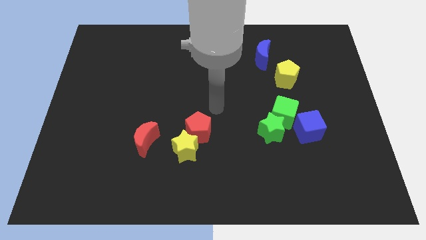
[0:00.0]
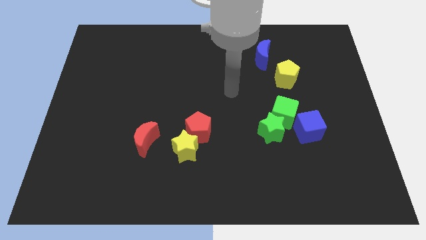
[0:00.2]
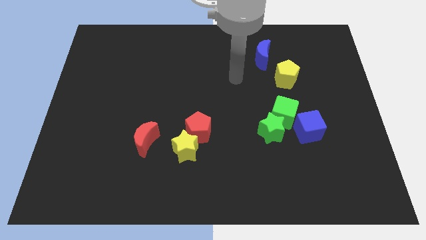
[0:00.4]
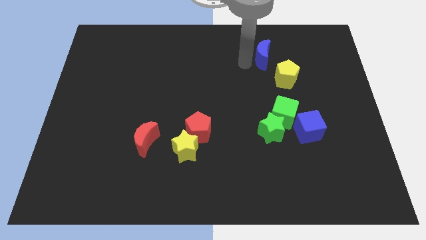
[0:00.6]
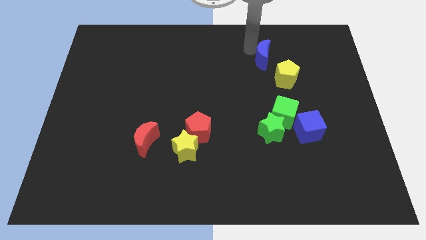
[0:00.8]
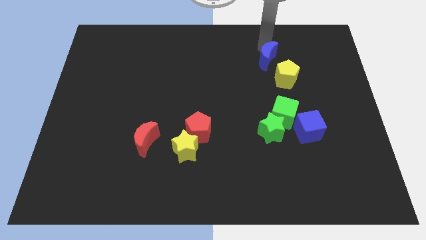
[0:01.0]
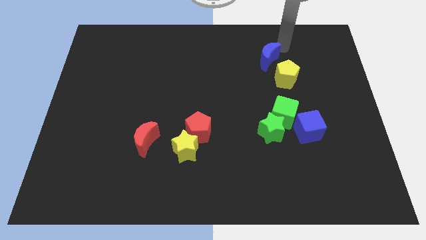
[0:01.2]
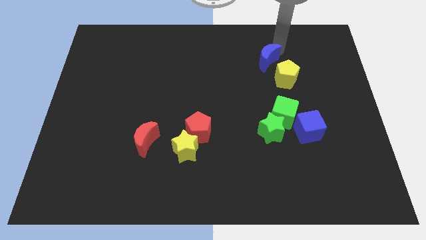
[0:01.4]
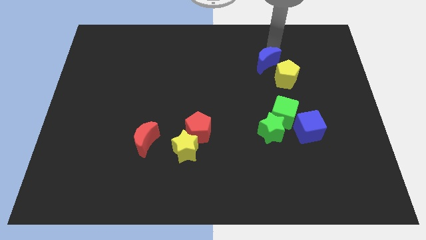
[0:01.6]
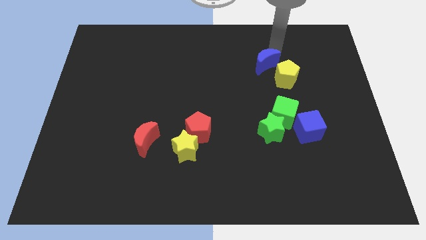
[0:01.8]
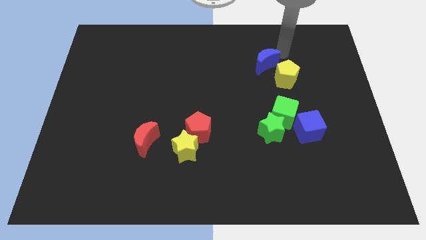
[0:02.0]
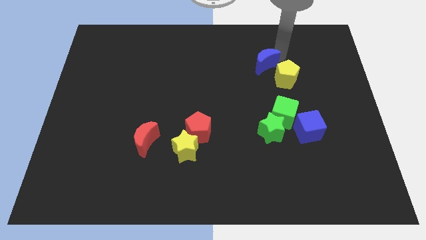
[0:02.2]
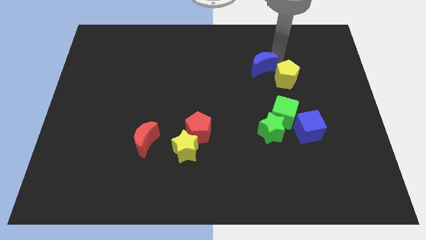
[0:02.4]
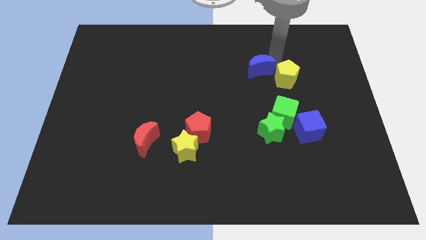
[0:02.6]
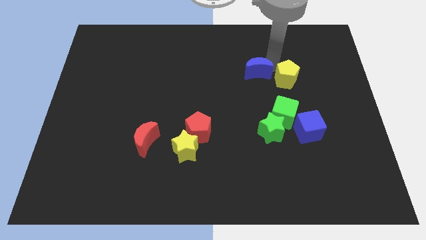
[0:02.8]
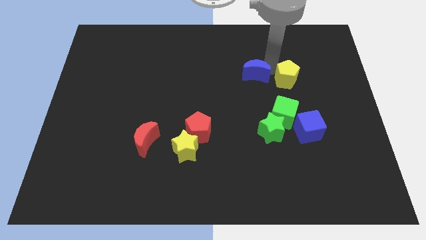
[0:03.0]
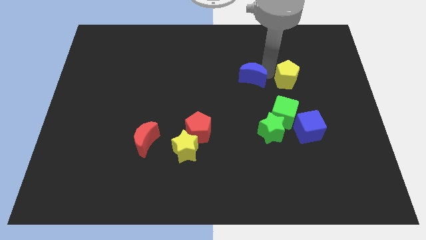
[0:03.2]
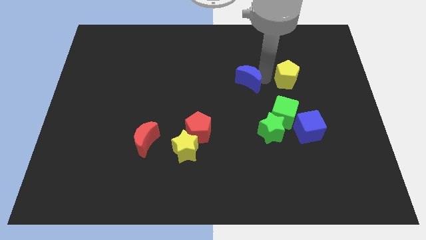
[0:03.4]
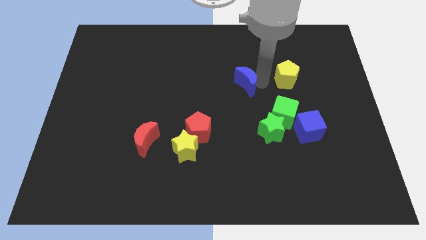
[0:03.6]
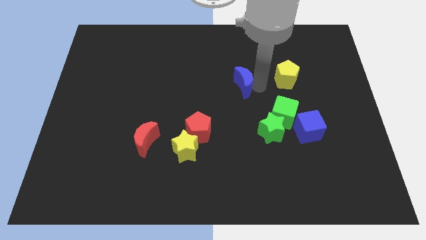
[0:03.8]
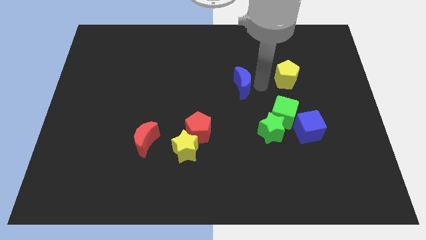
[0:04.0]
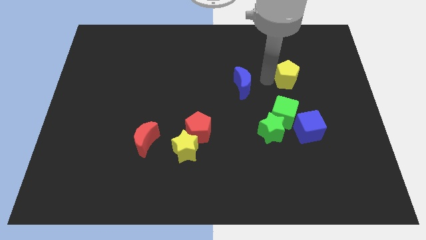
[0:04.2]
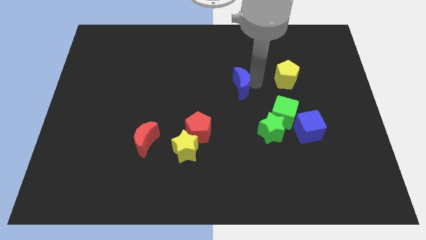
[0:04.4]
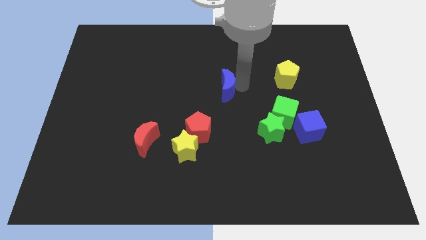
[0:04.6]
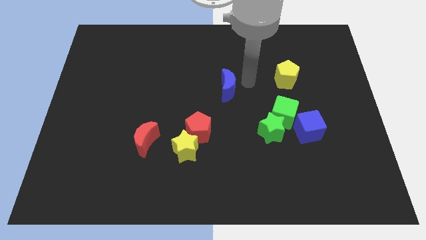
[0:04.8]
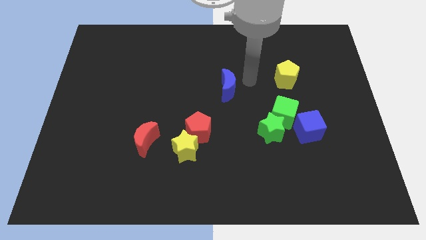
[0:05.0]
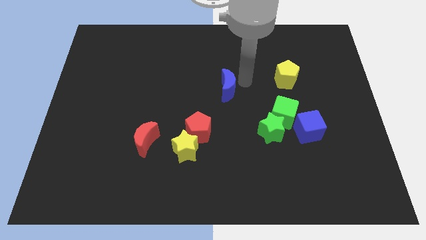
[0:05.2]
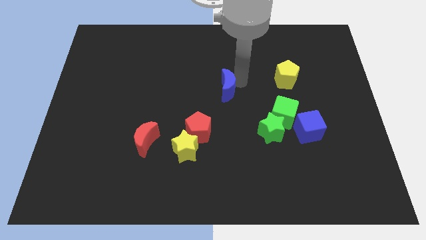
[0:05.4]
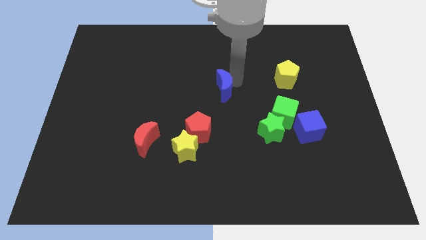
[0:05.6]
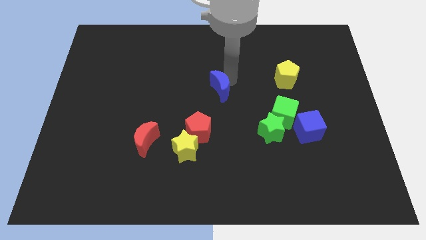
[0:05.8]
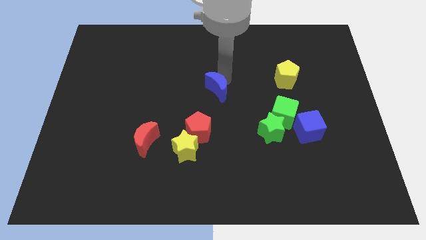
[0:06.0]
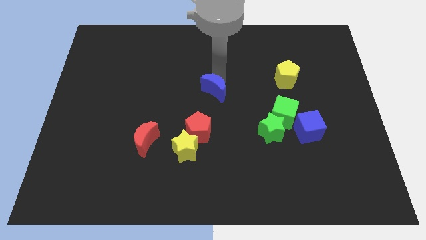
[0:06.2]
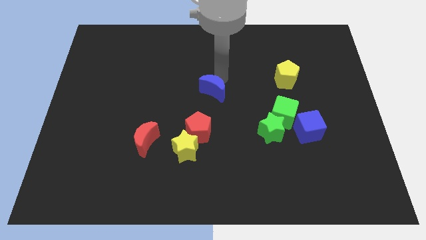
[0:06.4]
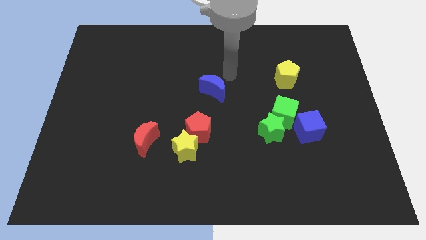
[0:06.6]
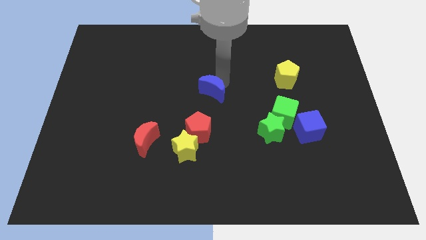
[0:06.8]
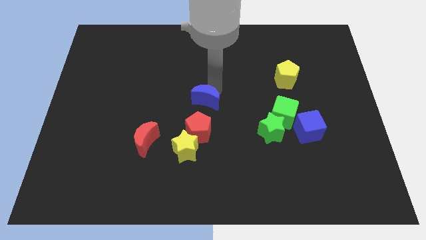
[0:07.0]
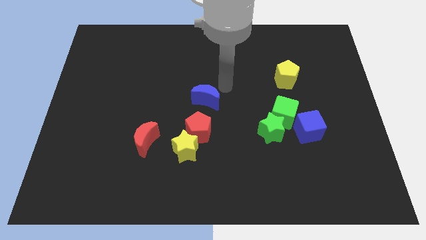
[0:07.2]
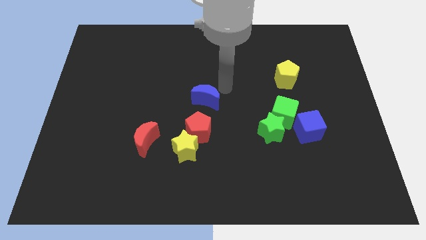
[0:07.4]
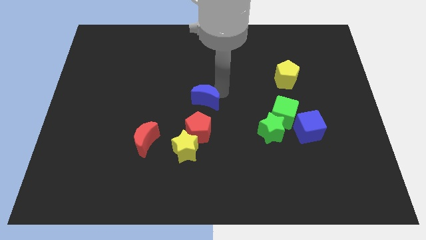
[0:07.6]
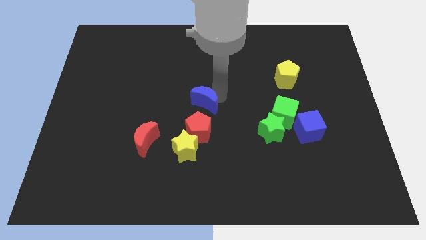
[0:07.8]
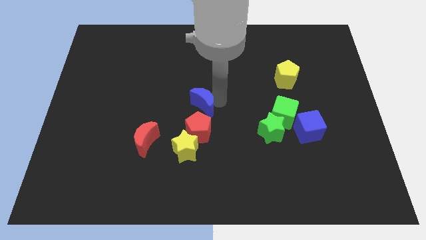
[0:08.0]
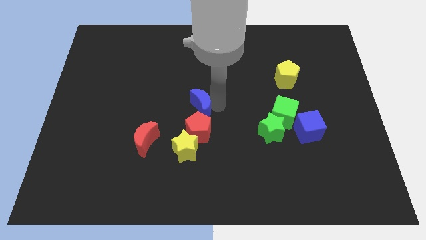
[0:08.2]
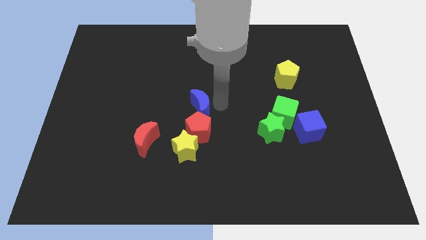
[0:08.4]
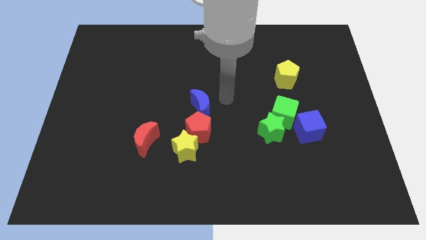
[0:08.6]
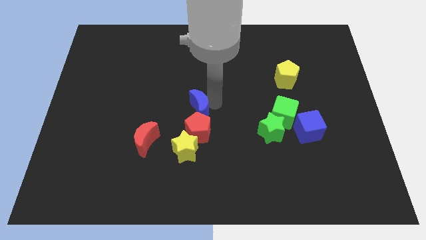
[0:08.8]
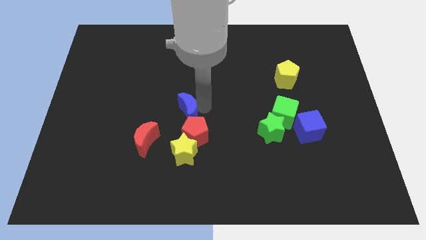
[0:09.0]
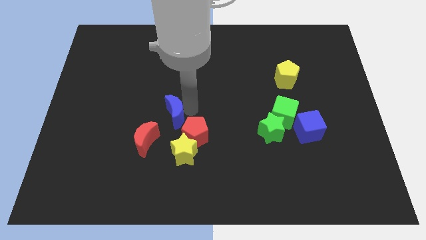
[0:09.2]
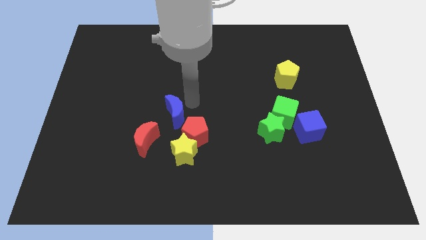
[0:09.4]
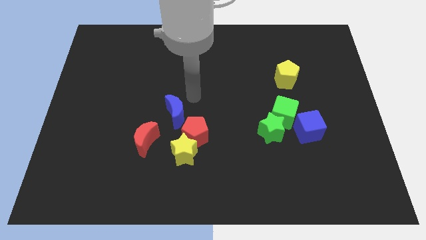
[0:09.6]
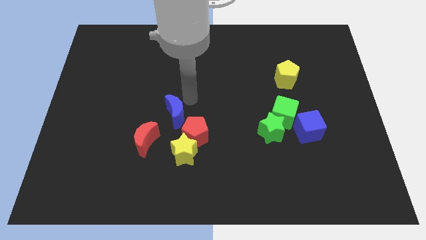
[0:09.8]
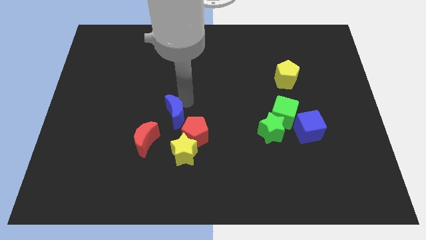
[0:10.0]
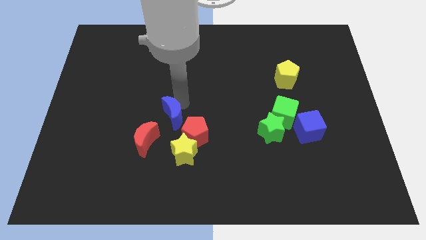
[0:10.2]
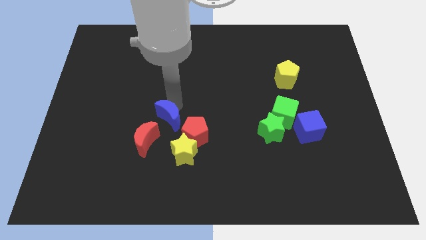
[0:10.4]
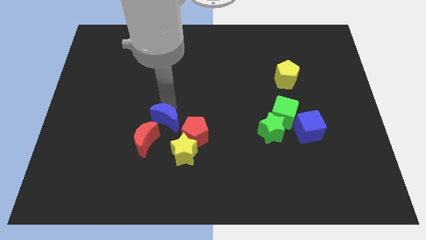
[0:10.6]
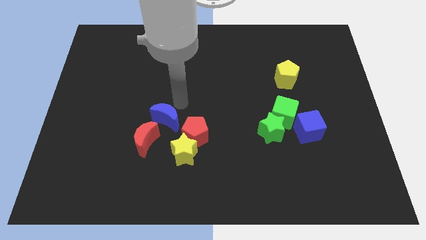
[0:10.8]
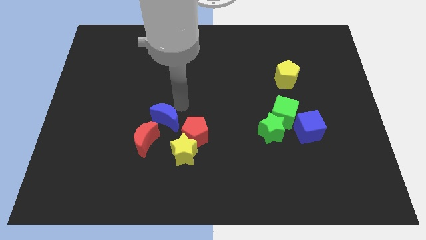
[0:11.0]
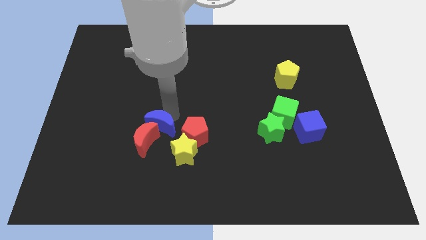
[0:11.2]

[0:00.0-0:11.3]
slide the blue moon close to the red moon

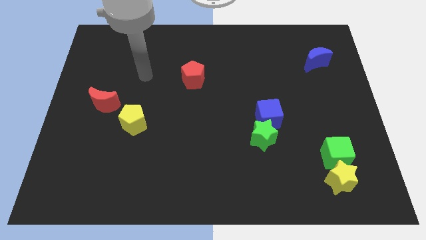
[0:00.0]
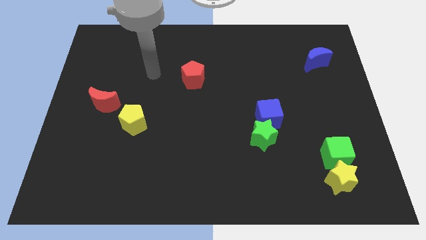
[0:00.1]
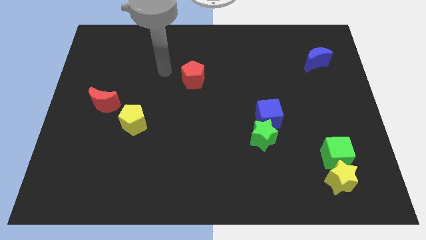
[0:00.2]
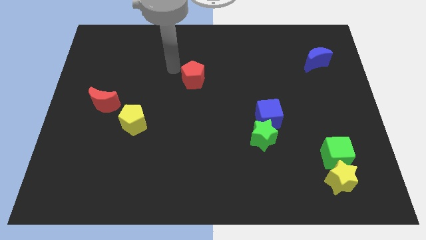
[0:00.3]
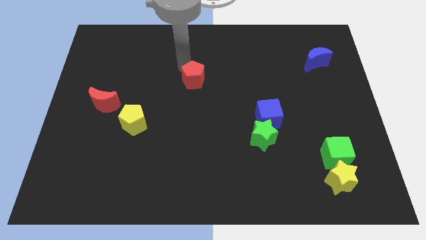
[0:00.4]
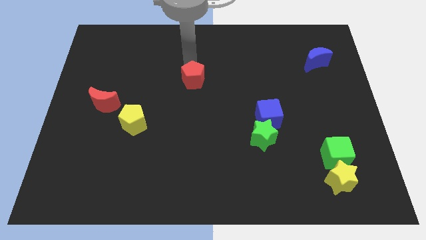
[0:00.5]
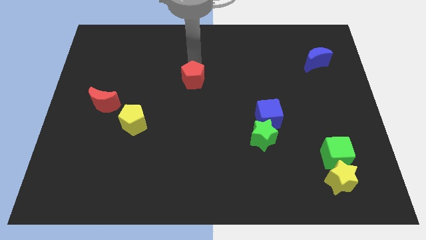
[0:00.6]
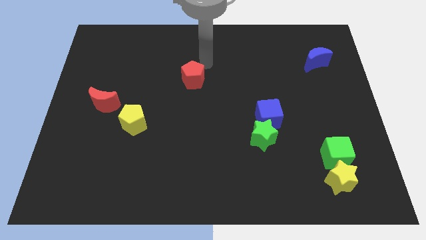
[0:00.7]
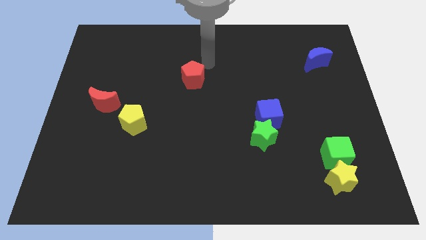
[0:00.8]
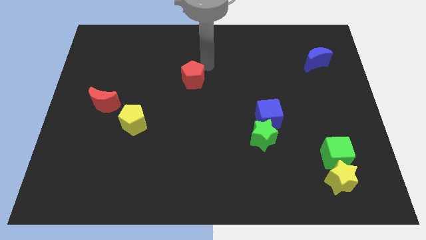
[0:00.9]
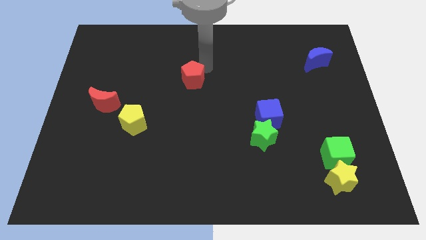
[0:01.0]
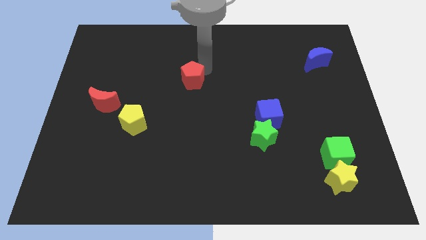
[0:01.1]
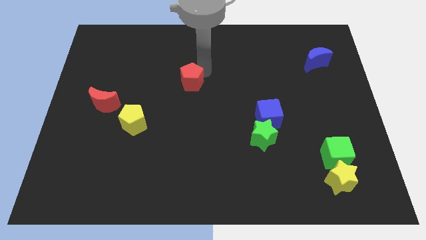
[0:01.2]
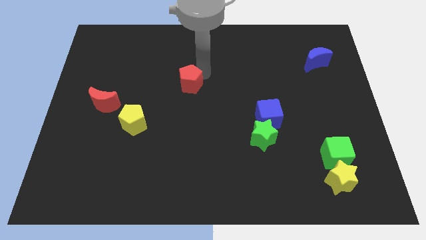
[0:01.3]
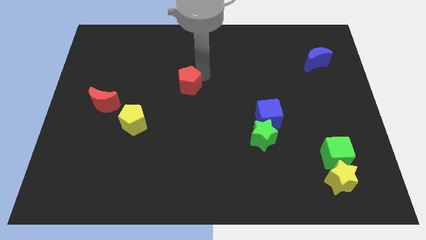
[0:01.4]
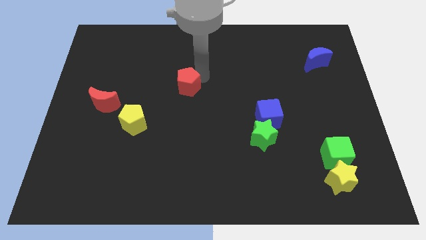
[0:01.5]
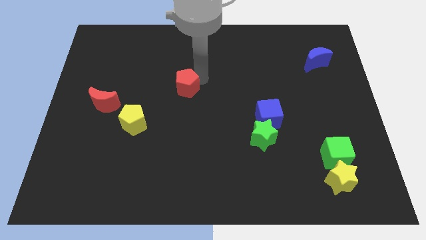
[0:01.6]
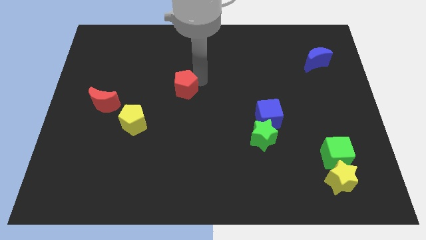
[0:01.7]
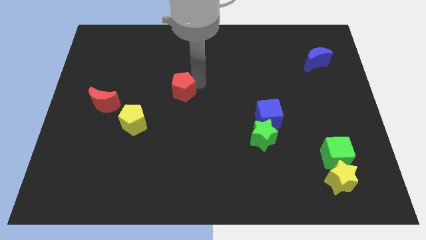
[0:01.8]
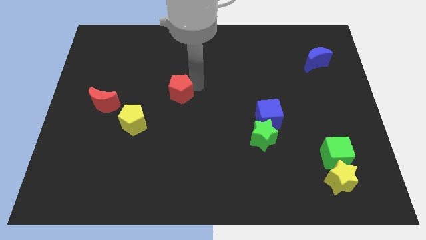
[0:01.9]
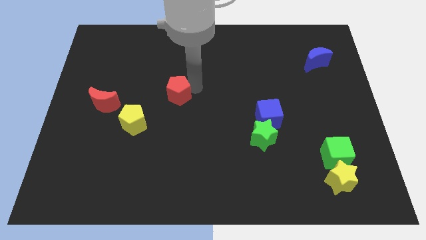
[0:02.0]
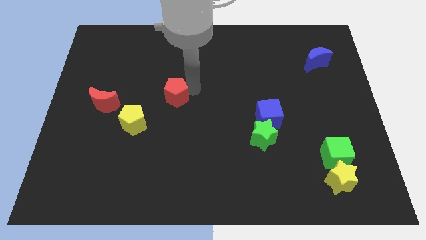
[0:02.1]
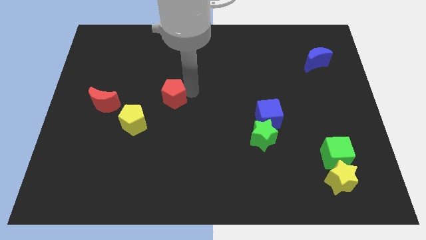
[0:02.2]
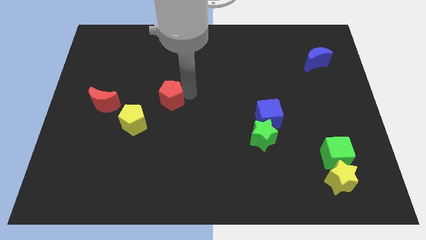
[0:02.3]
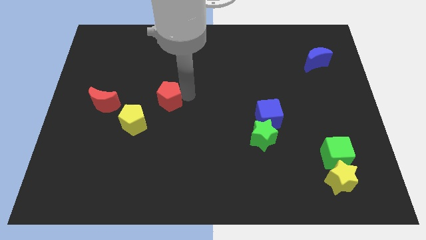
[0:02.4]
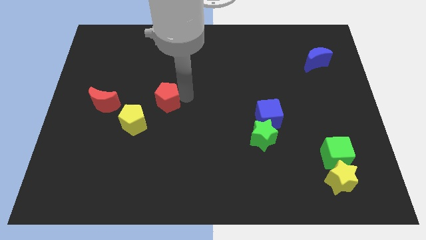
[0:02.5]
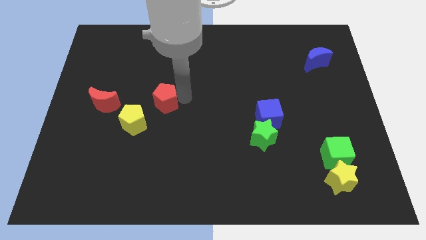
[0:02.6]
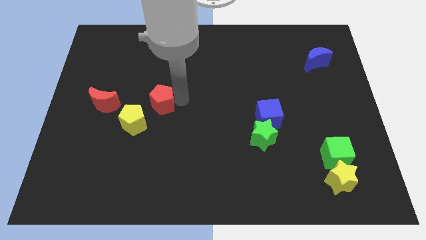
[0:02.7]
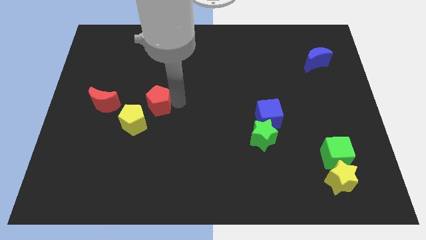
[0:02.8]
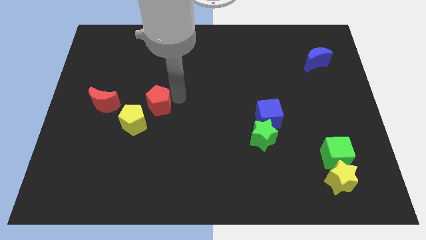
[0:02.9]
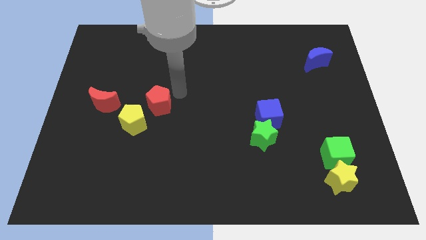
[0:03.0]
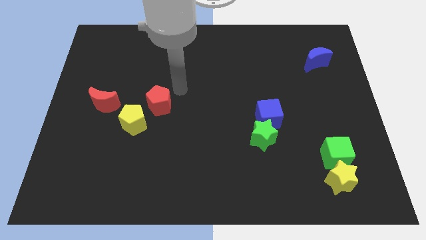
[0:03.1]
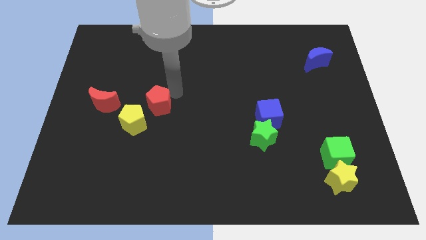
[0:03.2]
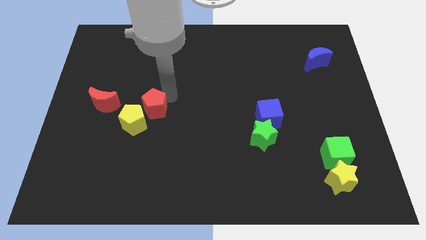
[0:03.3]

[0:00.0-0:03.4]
push the red pentagon to the yellow pentagon
